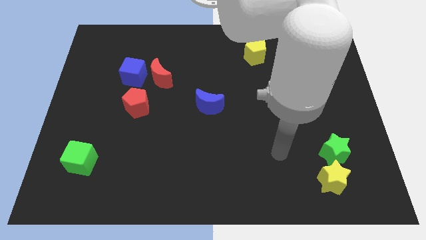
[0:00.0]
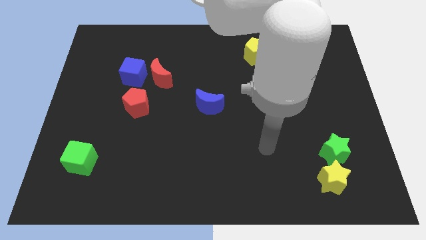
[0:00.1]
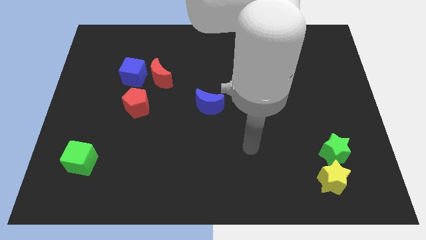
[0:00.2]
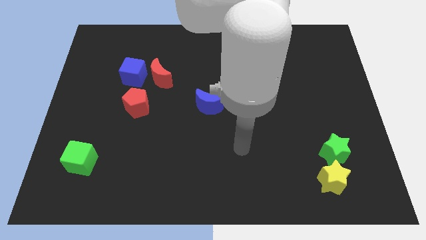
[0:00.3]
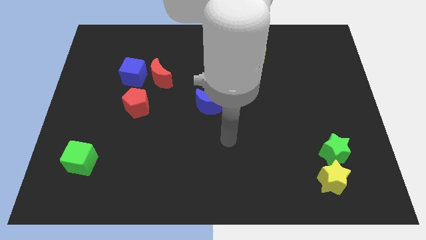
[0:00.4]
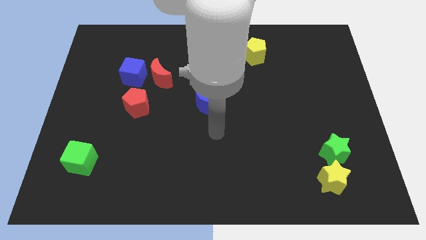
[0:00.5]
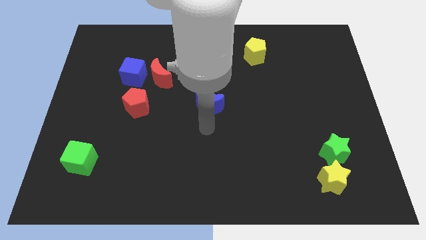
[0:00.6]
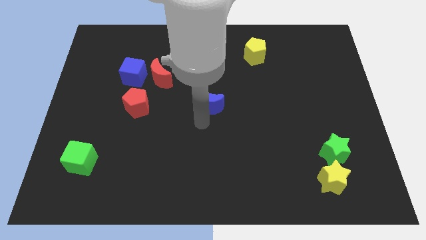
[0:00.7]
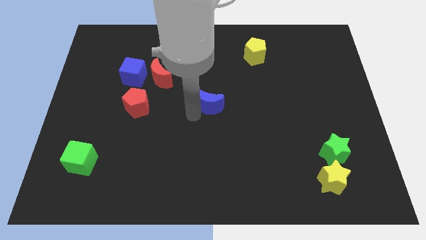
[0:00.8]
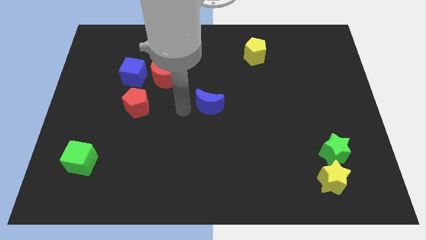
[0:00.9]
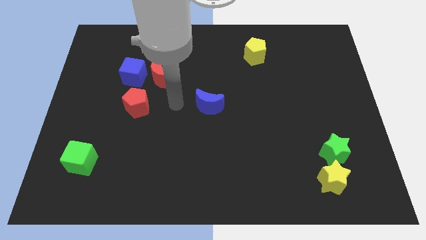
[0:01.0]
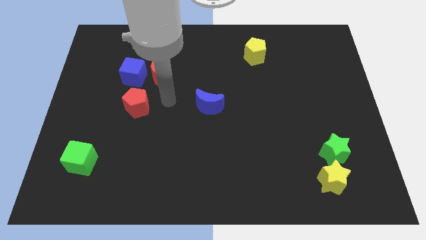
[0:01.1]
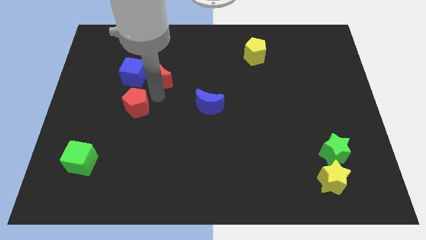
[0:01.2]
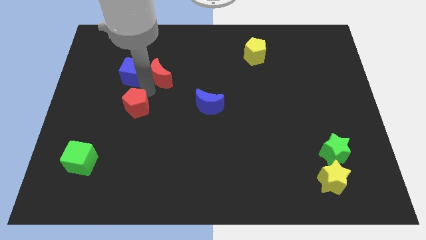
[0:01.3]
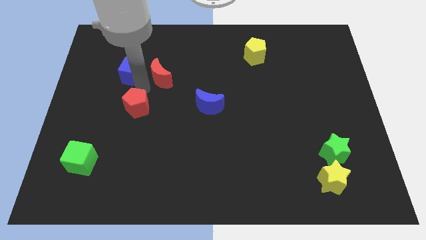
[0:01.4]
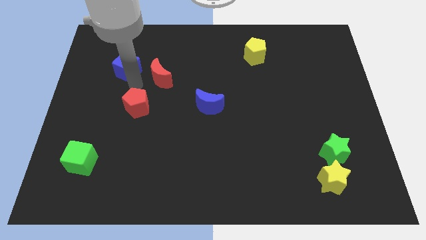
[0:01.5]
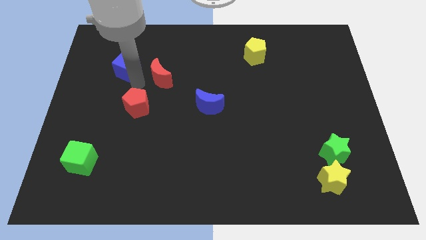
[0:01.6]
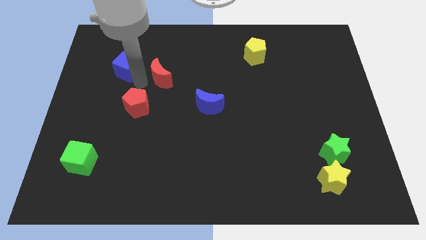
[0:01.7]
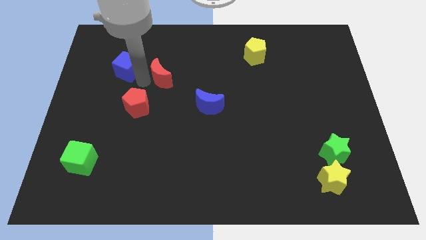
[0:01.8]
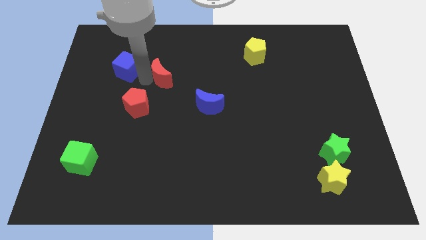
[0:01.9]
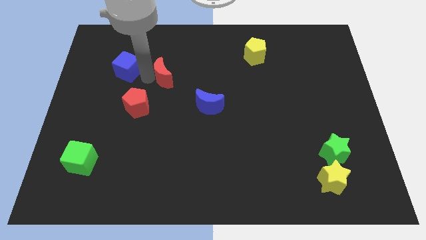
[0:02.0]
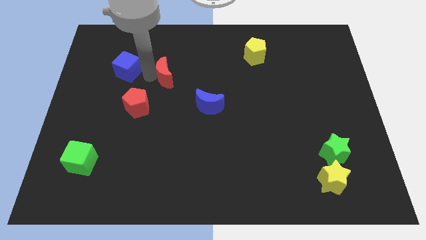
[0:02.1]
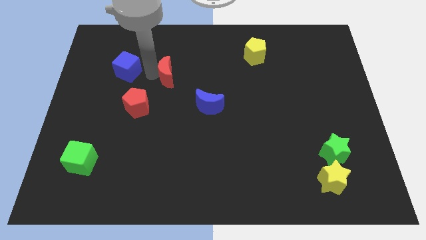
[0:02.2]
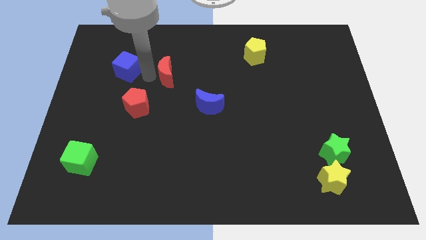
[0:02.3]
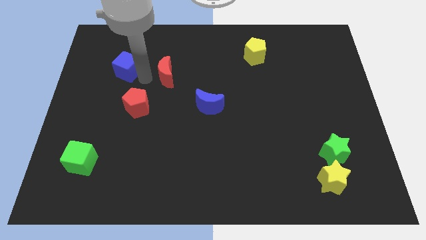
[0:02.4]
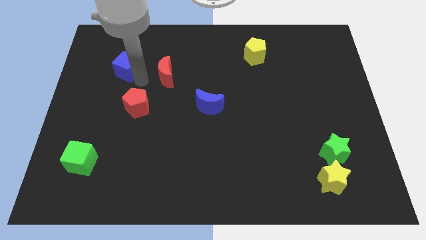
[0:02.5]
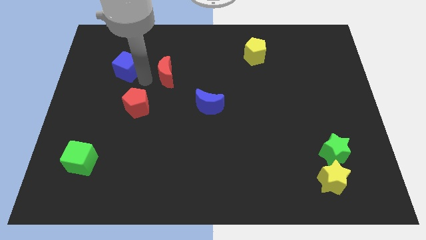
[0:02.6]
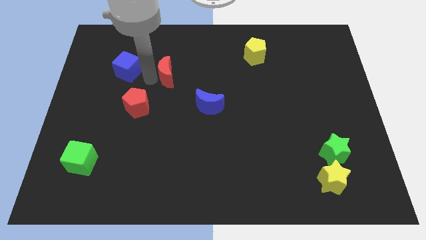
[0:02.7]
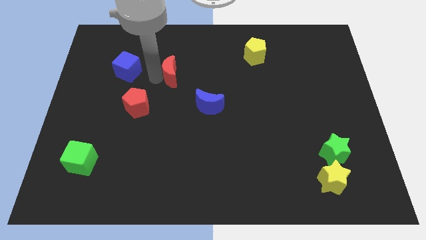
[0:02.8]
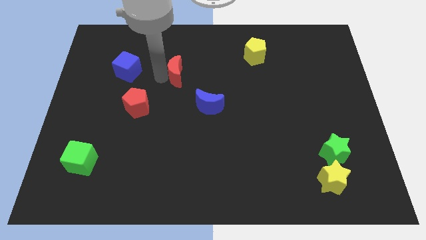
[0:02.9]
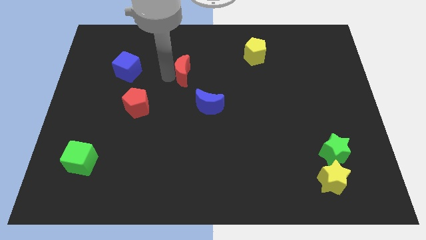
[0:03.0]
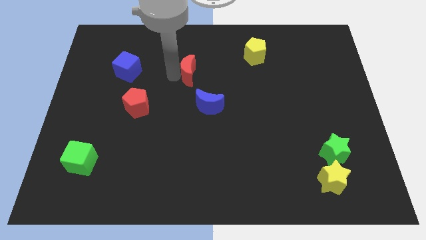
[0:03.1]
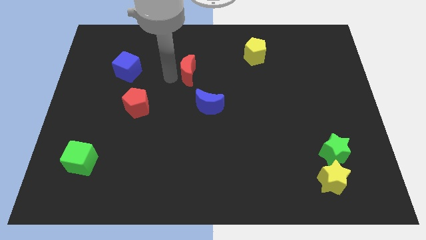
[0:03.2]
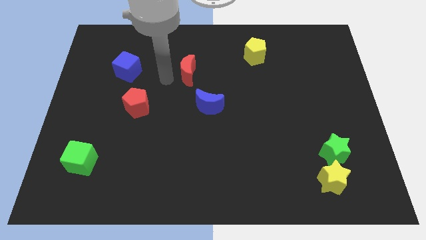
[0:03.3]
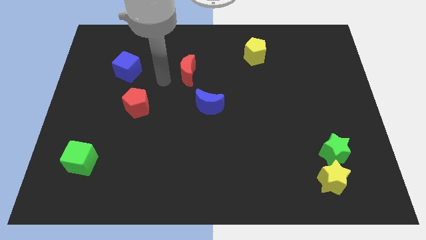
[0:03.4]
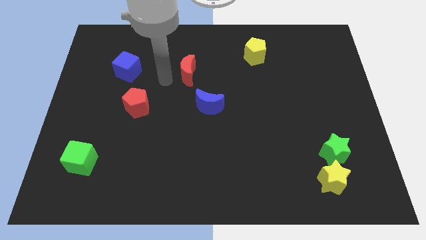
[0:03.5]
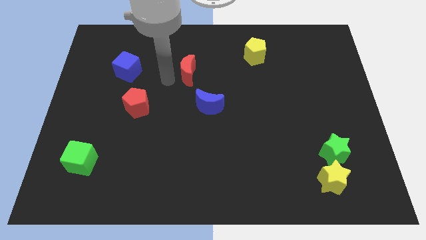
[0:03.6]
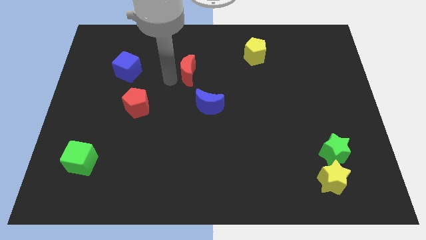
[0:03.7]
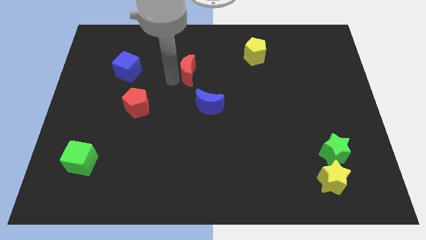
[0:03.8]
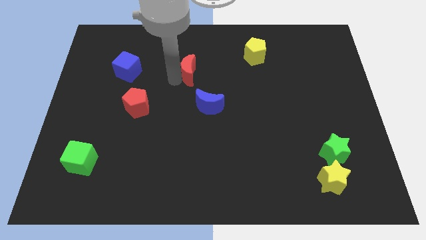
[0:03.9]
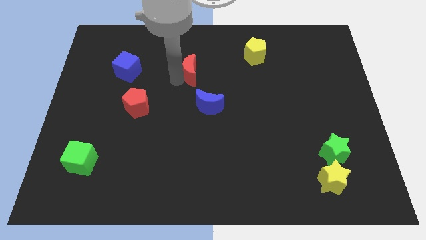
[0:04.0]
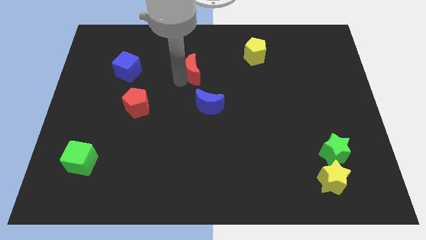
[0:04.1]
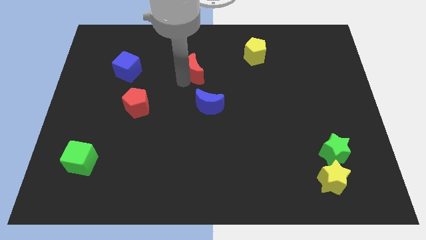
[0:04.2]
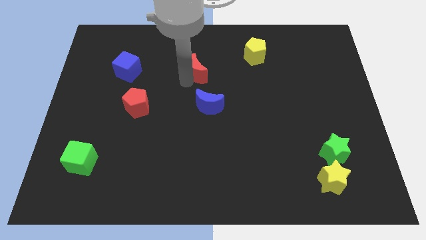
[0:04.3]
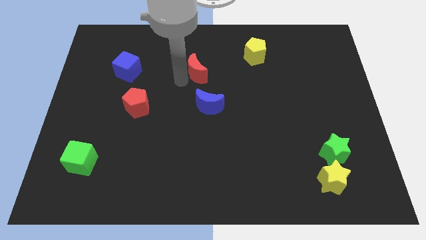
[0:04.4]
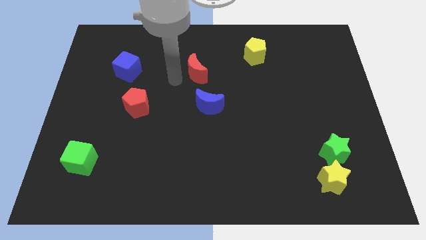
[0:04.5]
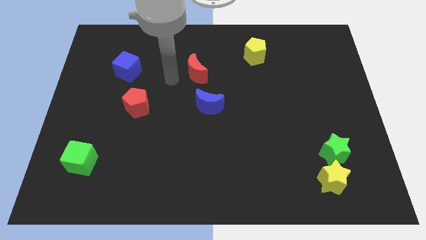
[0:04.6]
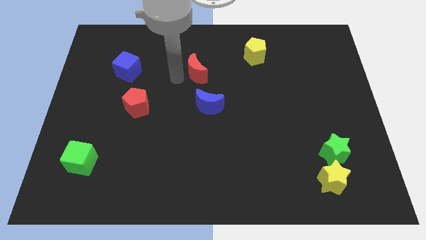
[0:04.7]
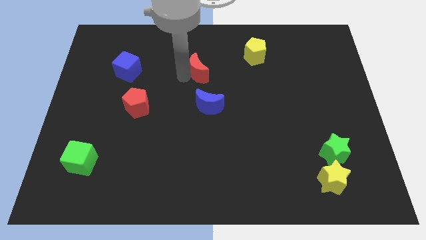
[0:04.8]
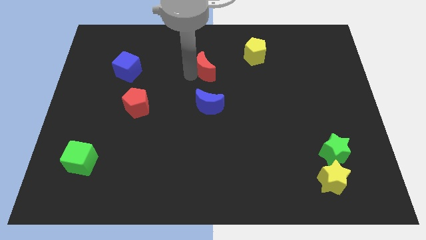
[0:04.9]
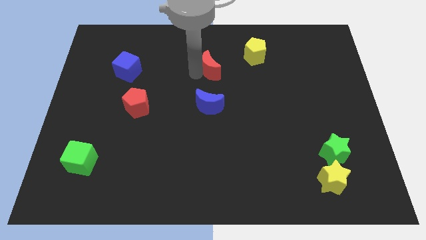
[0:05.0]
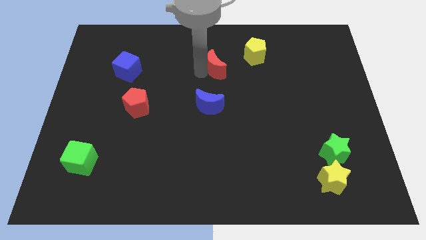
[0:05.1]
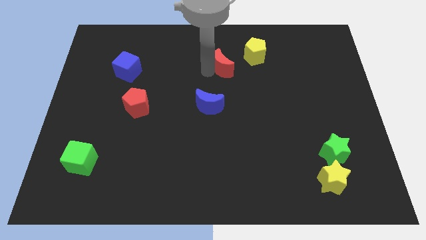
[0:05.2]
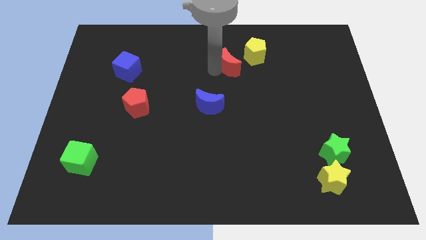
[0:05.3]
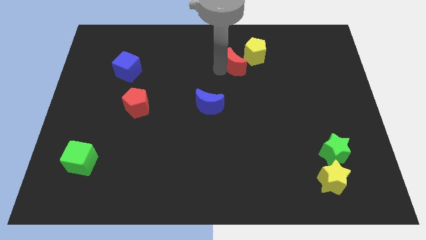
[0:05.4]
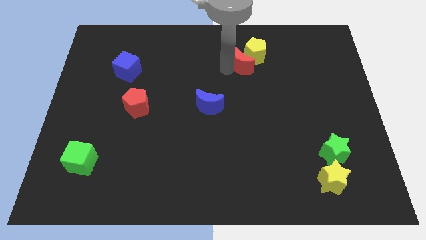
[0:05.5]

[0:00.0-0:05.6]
push the red moon towards the yellow pentagon

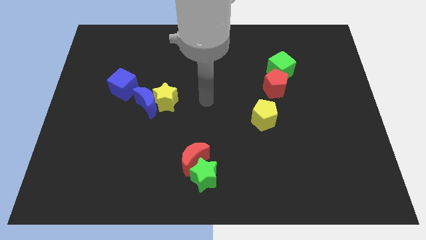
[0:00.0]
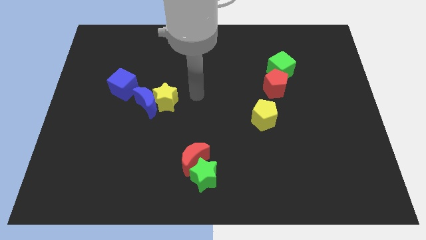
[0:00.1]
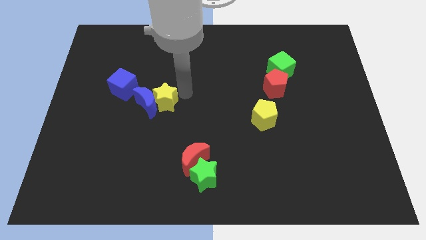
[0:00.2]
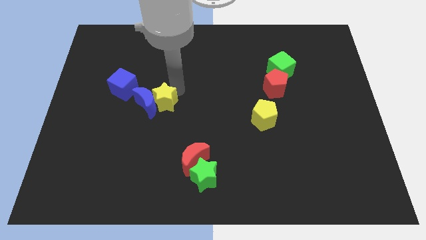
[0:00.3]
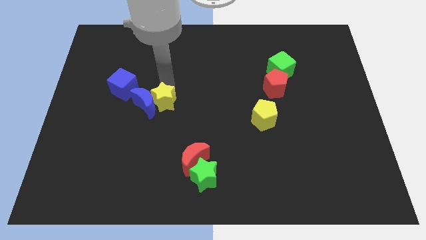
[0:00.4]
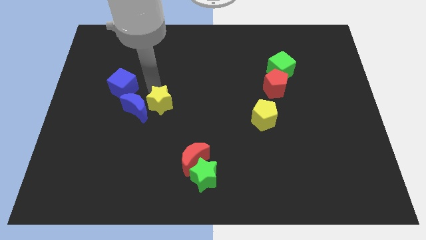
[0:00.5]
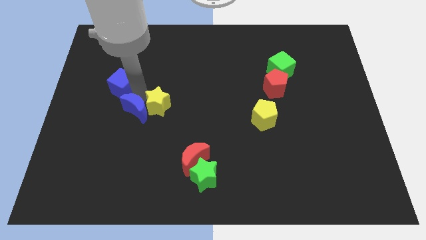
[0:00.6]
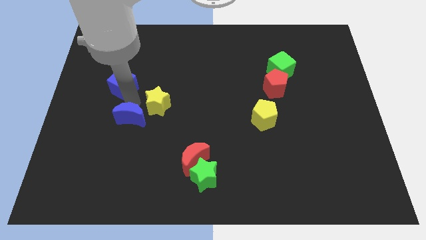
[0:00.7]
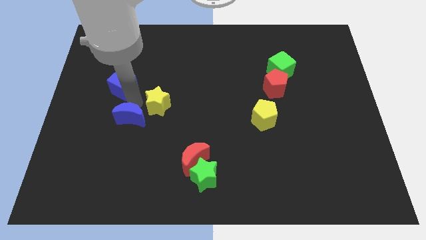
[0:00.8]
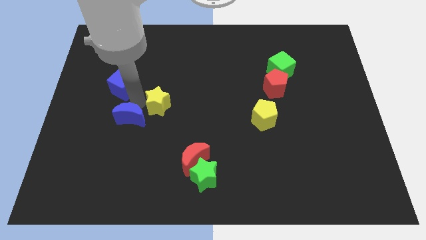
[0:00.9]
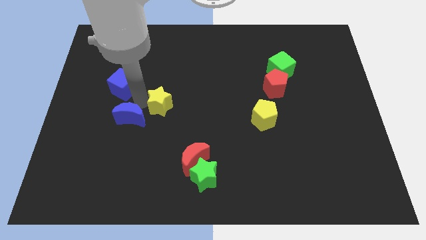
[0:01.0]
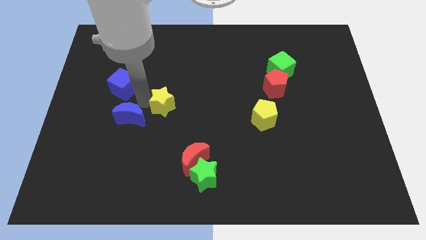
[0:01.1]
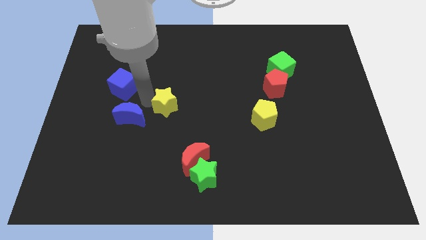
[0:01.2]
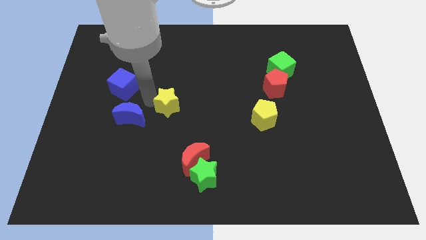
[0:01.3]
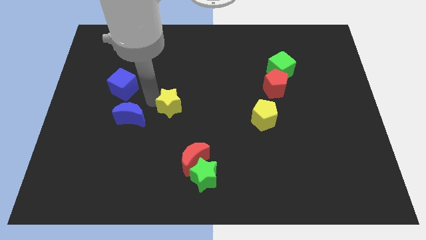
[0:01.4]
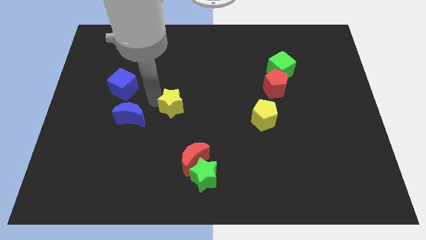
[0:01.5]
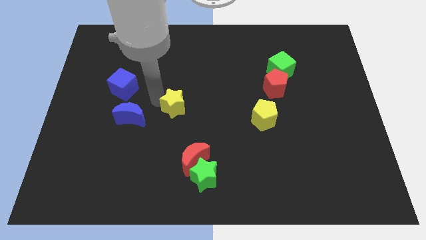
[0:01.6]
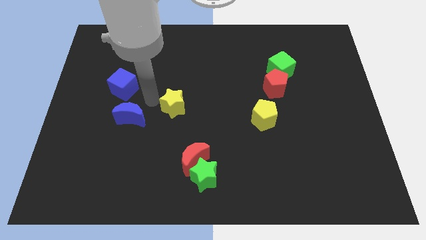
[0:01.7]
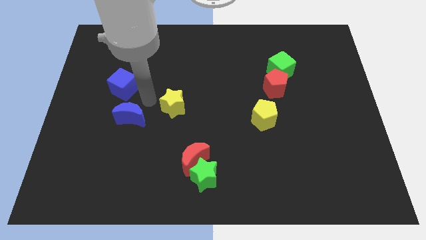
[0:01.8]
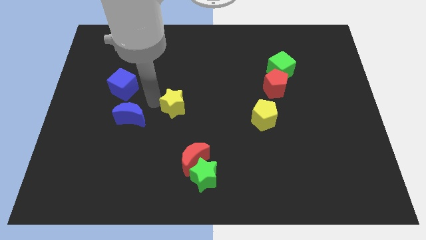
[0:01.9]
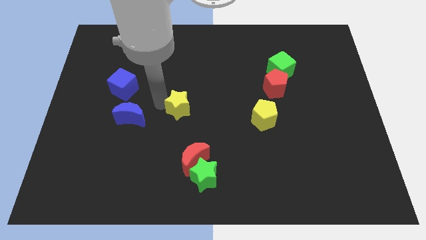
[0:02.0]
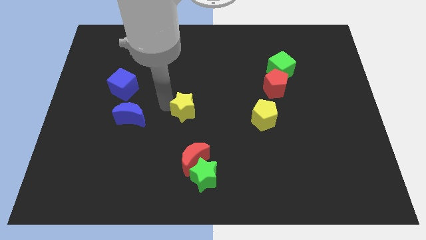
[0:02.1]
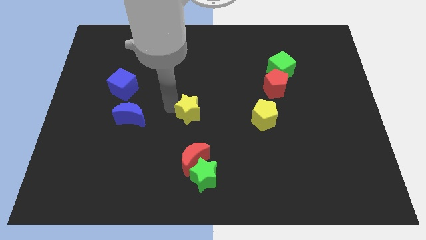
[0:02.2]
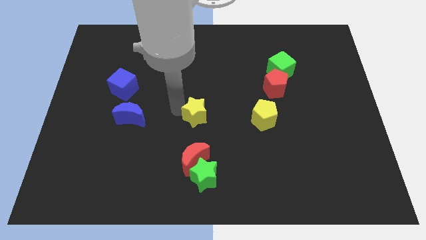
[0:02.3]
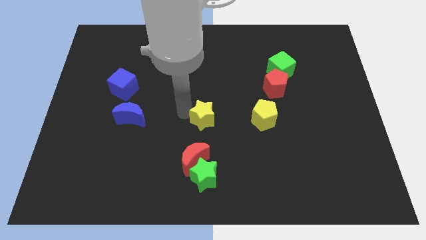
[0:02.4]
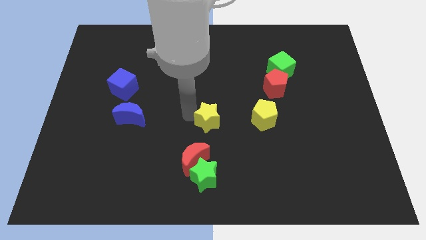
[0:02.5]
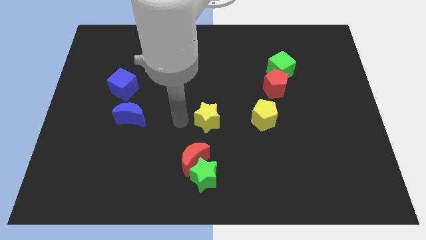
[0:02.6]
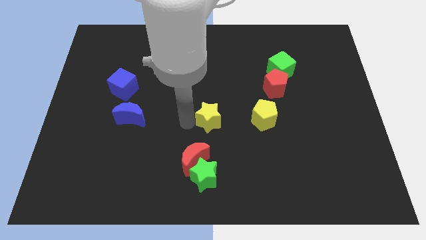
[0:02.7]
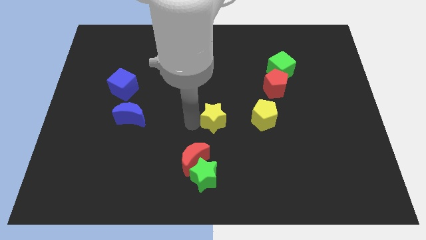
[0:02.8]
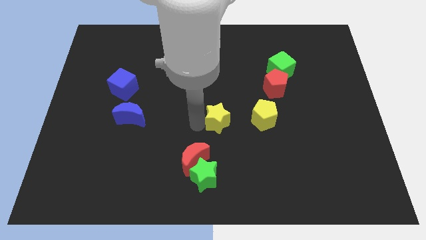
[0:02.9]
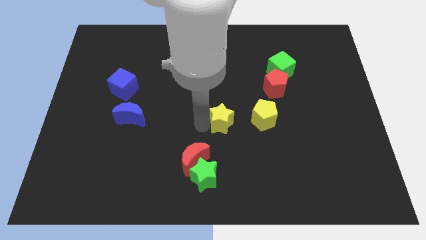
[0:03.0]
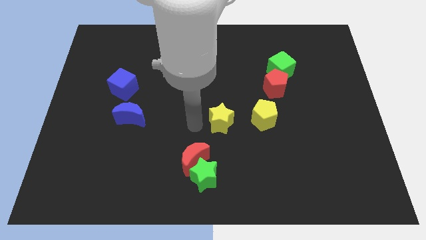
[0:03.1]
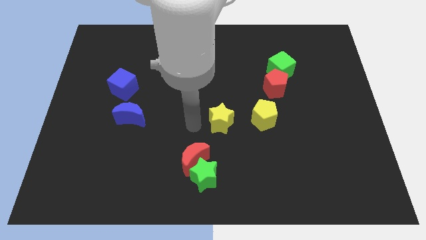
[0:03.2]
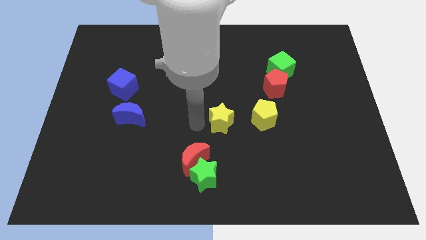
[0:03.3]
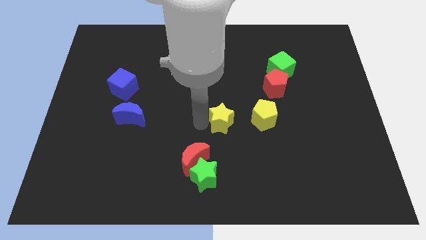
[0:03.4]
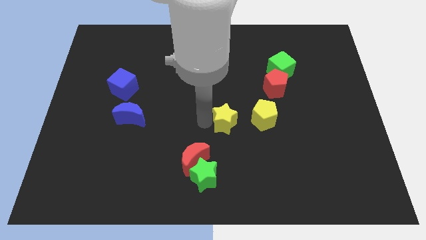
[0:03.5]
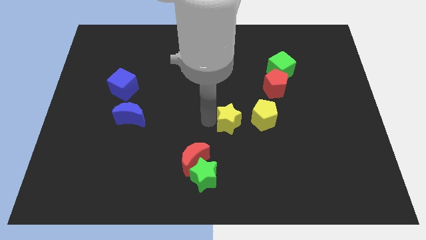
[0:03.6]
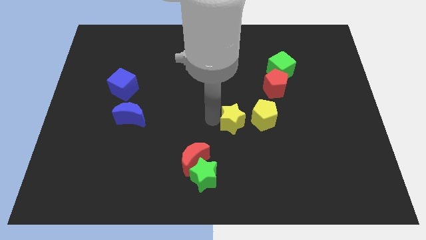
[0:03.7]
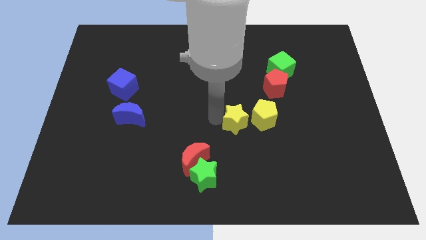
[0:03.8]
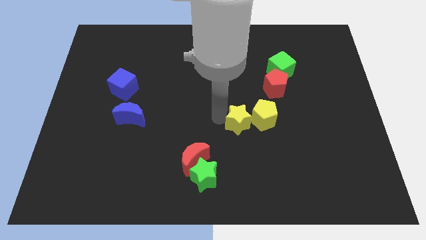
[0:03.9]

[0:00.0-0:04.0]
move the yellow star to the yellow pentagon
